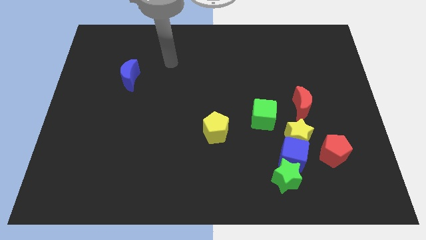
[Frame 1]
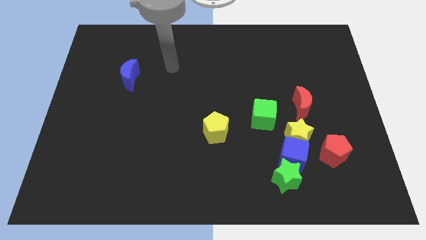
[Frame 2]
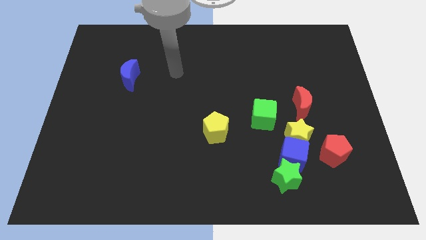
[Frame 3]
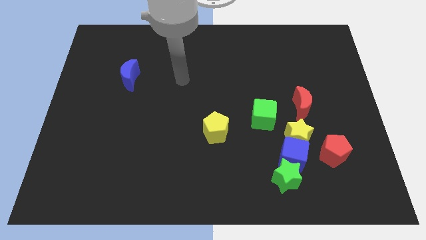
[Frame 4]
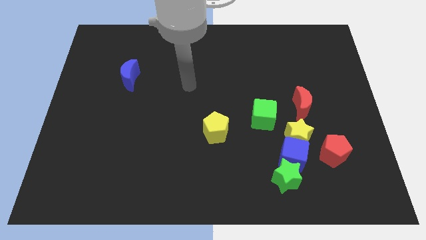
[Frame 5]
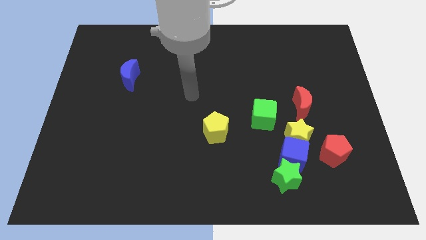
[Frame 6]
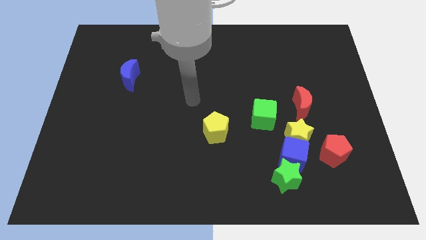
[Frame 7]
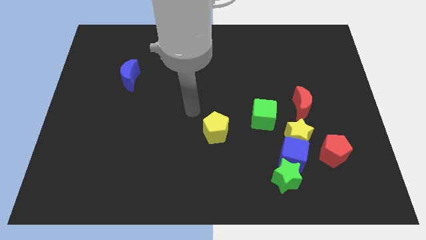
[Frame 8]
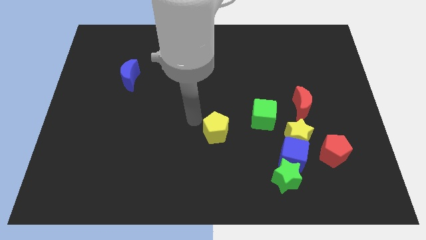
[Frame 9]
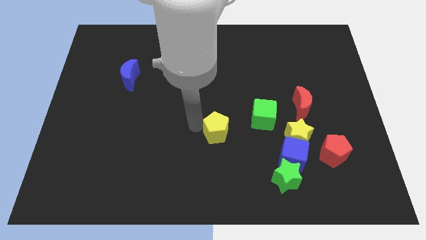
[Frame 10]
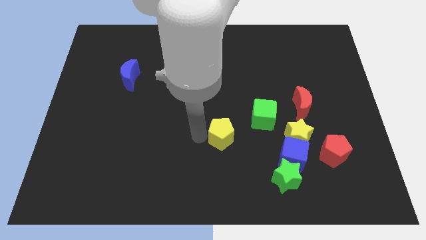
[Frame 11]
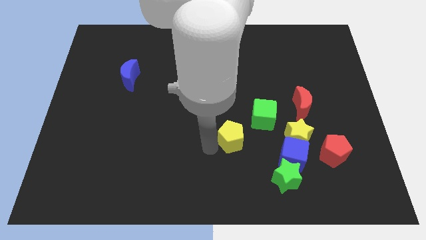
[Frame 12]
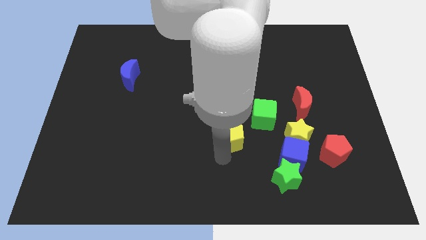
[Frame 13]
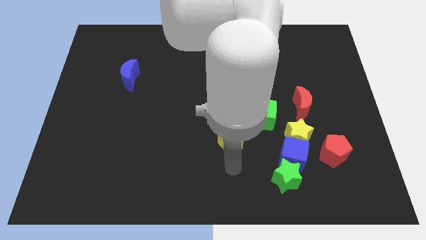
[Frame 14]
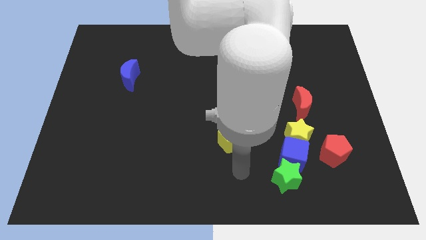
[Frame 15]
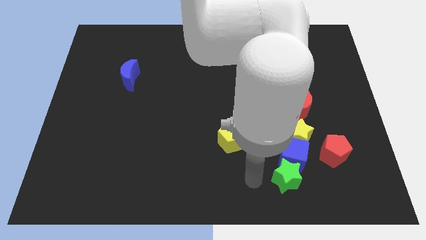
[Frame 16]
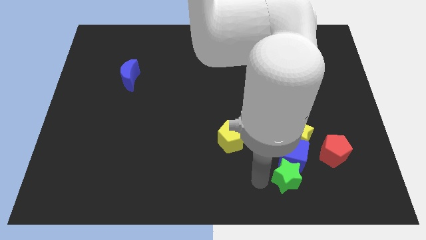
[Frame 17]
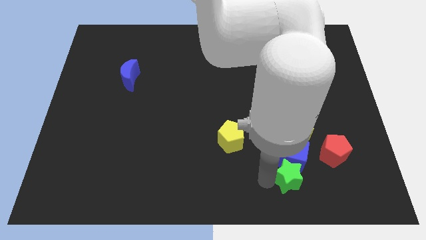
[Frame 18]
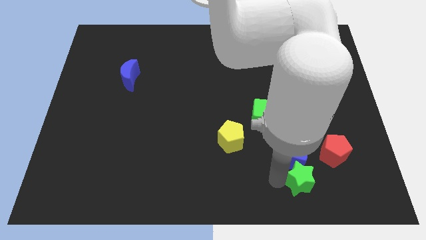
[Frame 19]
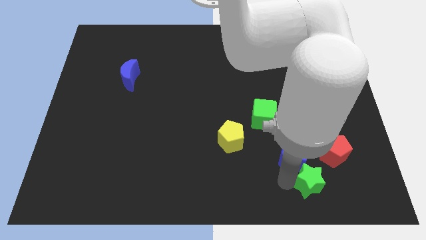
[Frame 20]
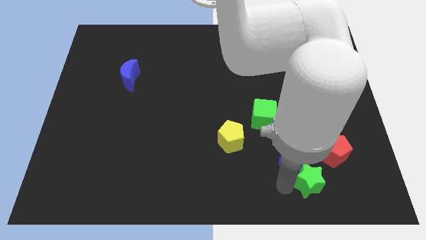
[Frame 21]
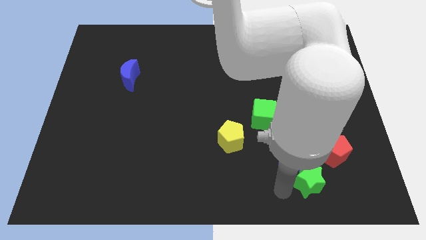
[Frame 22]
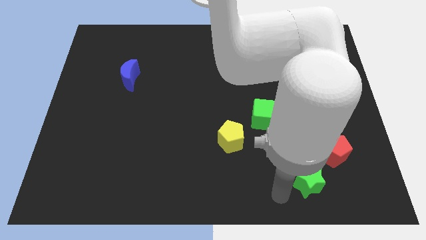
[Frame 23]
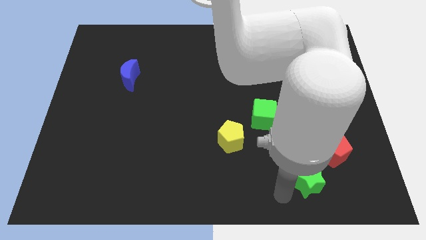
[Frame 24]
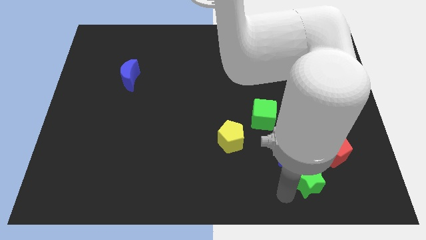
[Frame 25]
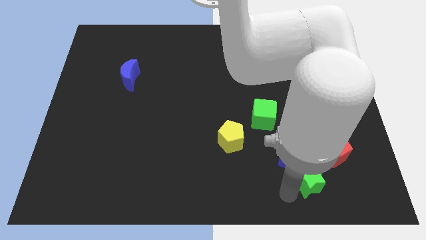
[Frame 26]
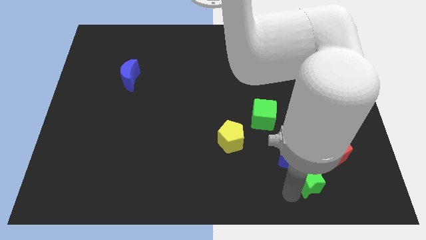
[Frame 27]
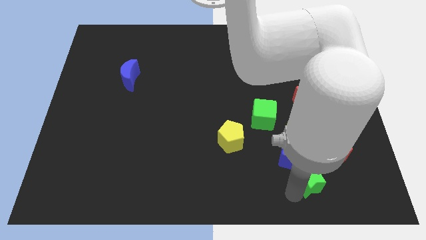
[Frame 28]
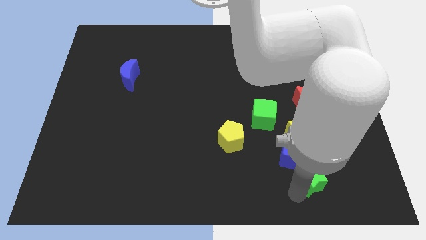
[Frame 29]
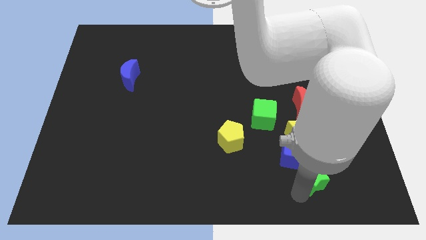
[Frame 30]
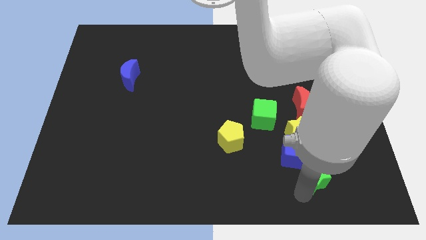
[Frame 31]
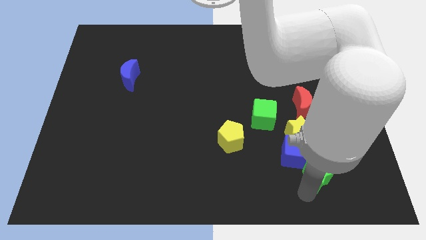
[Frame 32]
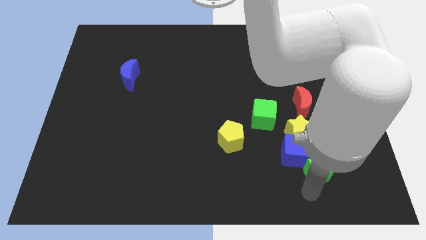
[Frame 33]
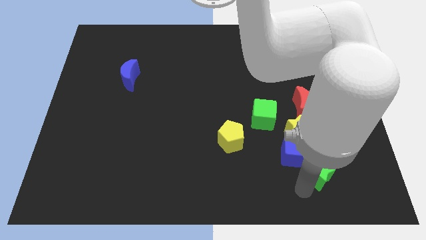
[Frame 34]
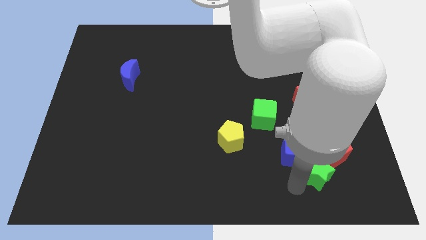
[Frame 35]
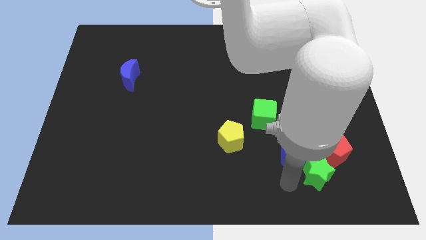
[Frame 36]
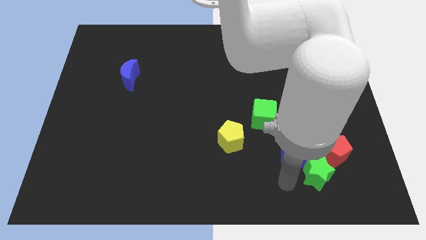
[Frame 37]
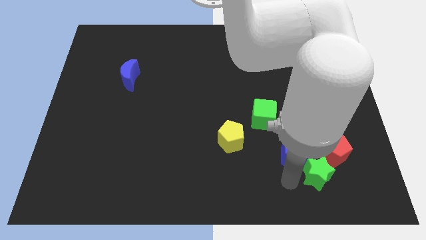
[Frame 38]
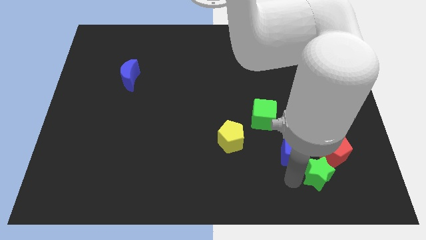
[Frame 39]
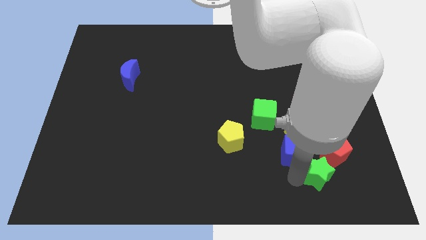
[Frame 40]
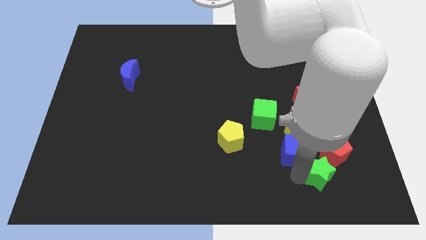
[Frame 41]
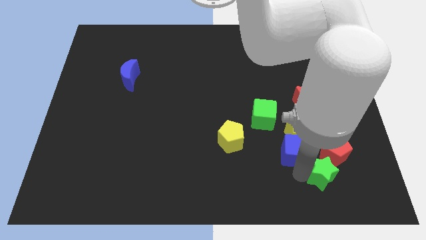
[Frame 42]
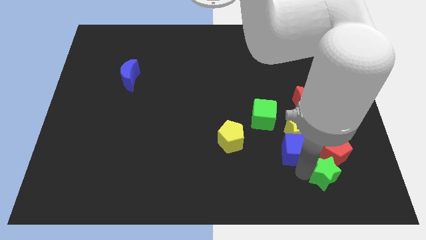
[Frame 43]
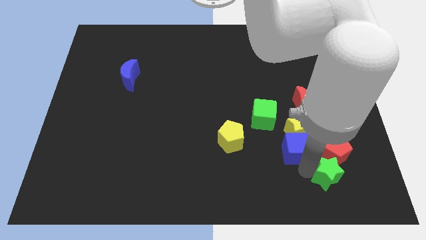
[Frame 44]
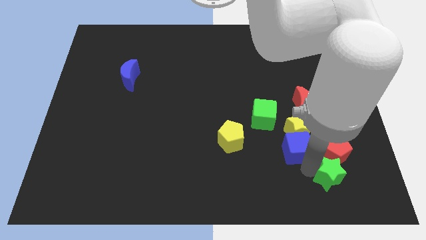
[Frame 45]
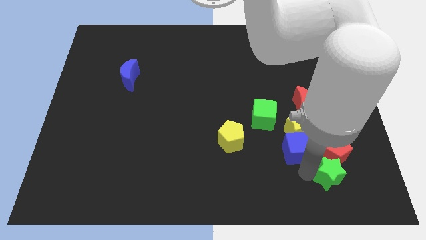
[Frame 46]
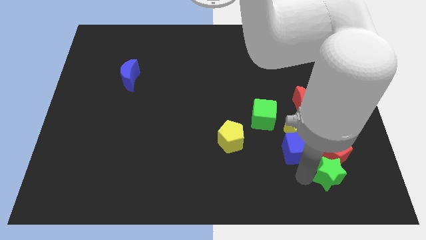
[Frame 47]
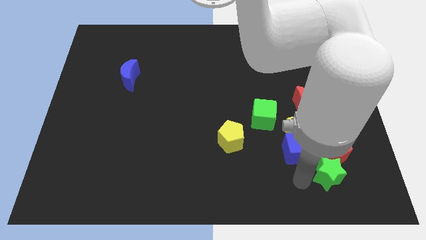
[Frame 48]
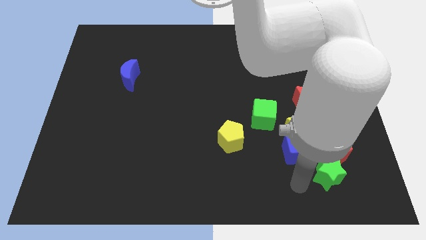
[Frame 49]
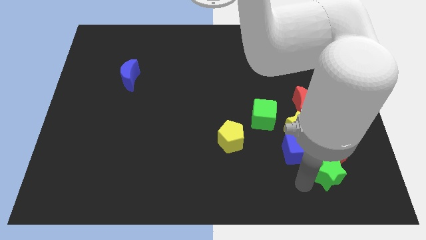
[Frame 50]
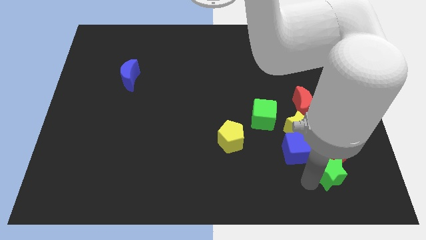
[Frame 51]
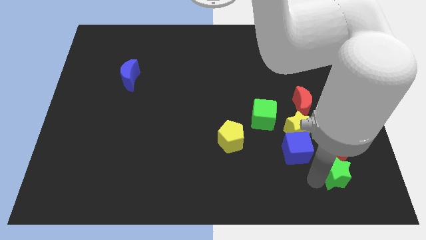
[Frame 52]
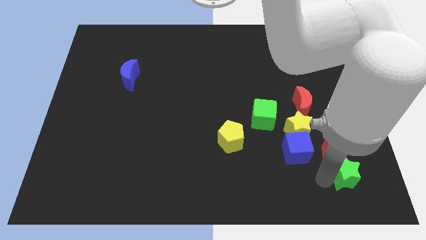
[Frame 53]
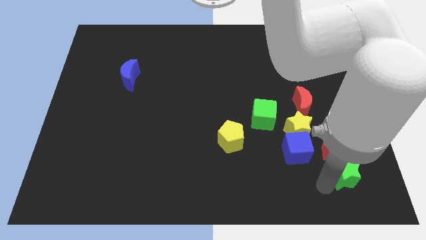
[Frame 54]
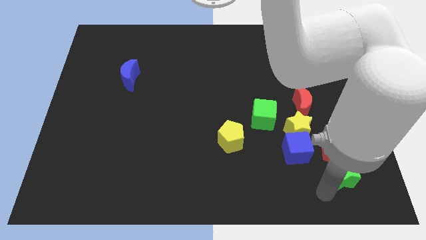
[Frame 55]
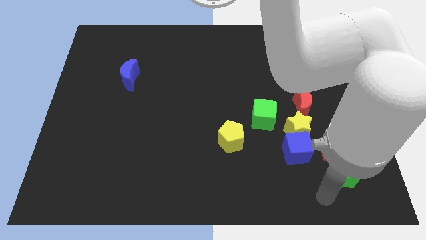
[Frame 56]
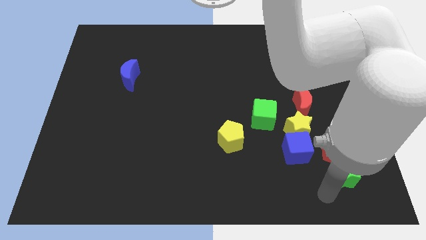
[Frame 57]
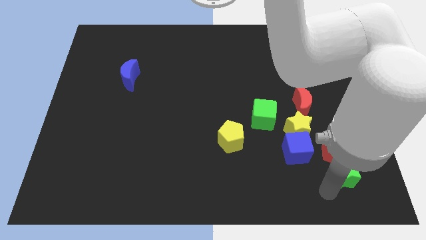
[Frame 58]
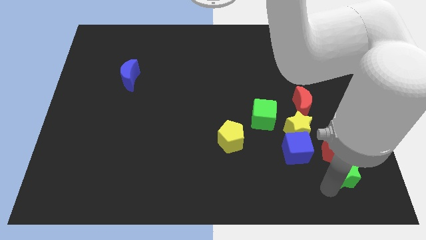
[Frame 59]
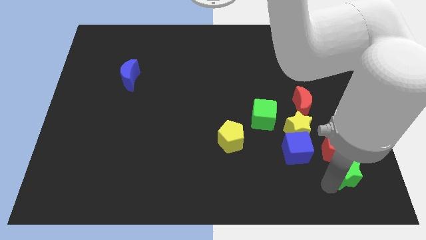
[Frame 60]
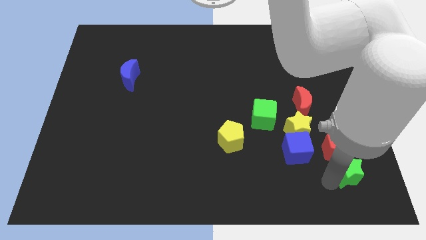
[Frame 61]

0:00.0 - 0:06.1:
push the green star upwards and right diagonally a little

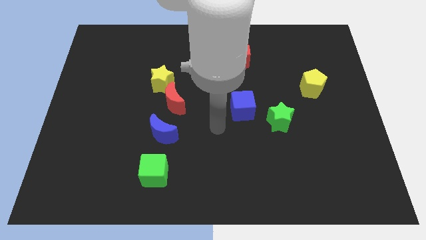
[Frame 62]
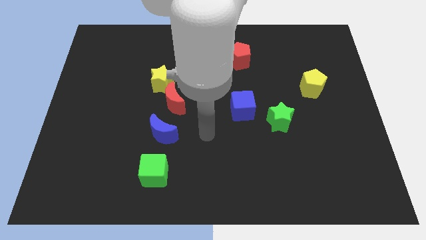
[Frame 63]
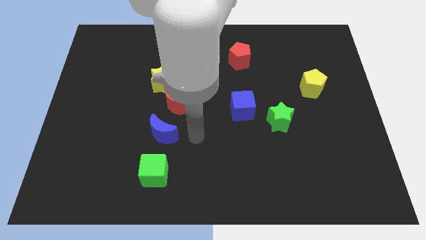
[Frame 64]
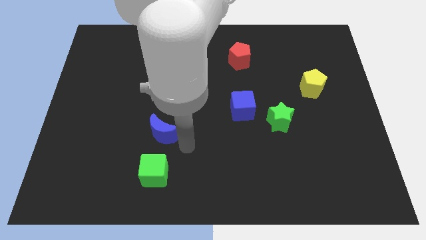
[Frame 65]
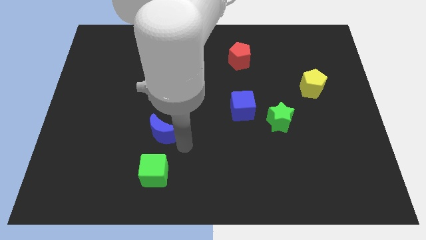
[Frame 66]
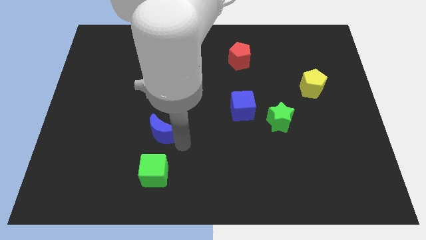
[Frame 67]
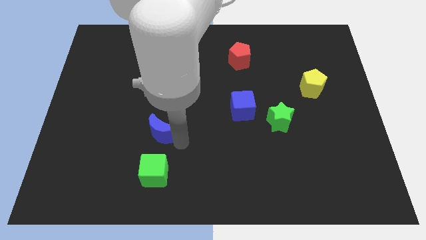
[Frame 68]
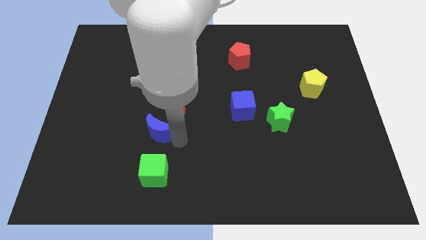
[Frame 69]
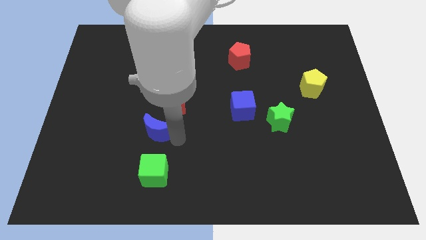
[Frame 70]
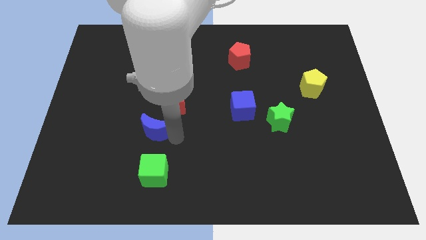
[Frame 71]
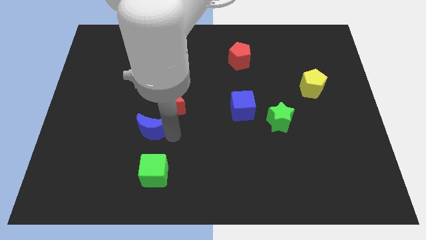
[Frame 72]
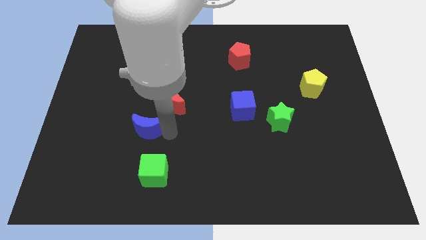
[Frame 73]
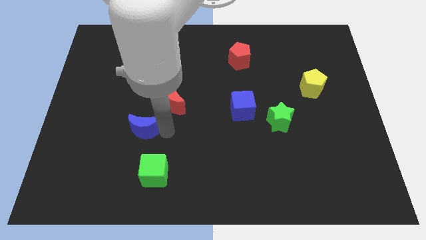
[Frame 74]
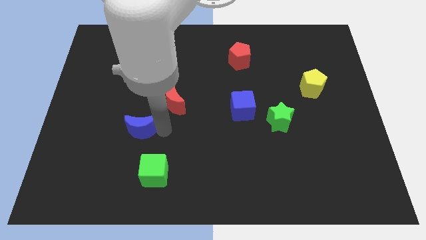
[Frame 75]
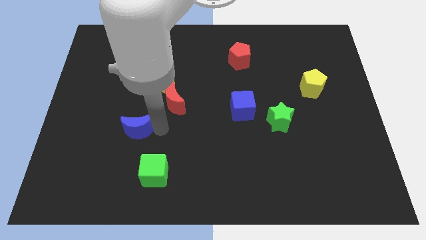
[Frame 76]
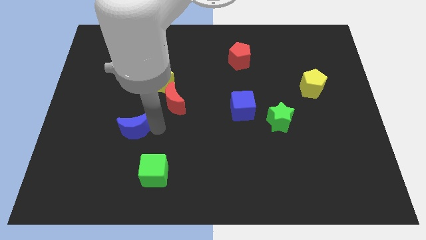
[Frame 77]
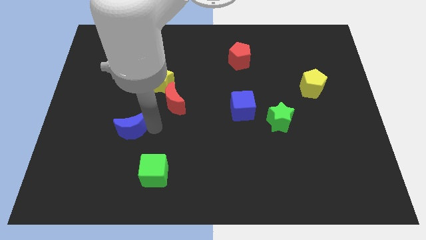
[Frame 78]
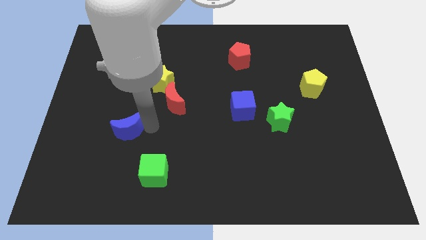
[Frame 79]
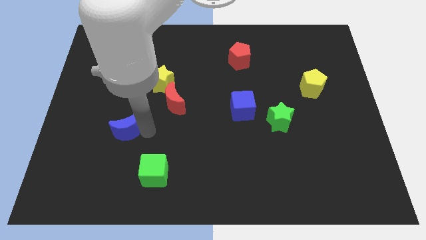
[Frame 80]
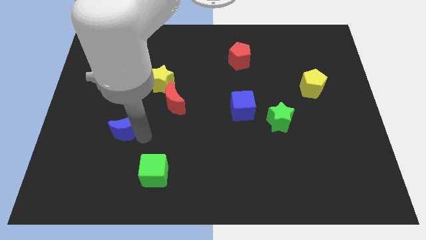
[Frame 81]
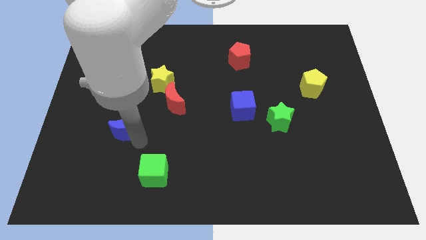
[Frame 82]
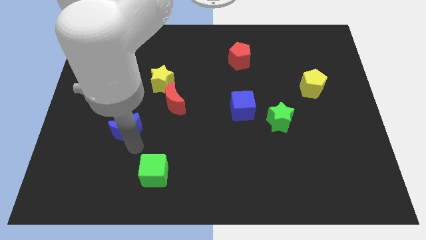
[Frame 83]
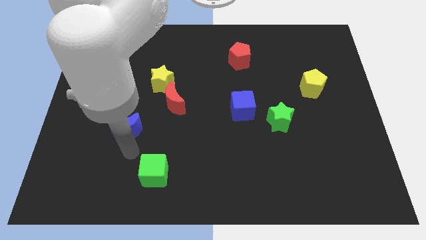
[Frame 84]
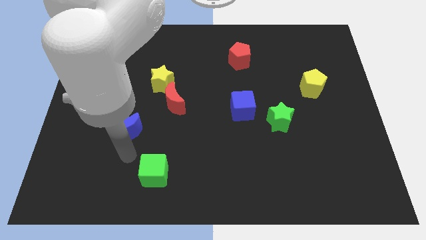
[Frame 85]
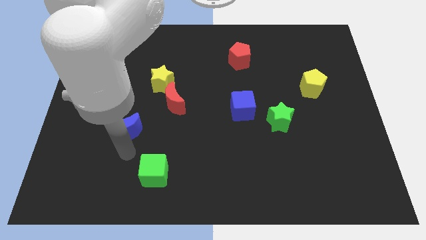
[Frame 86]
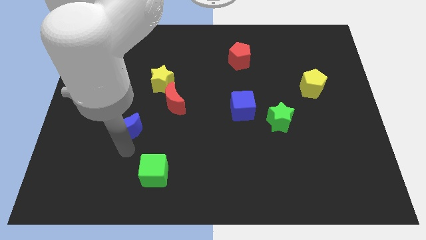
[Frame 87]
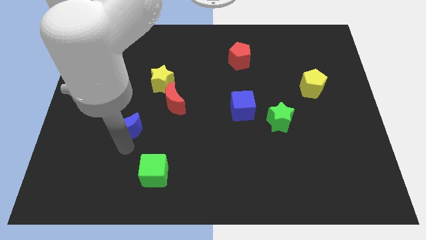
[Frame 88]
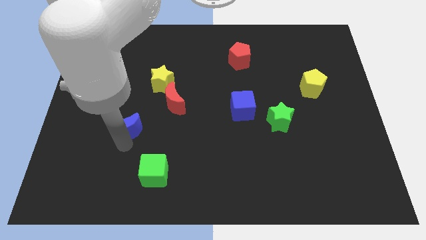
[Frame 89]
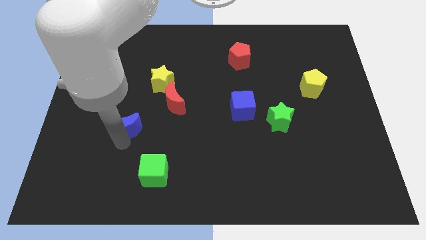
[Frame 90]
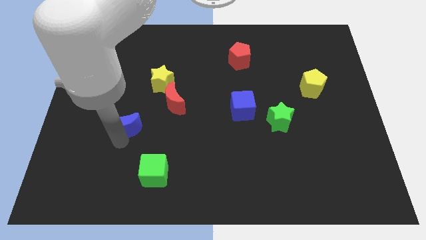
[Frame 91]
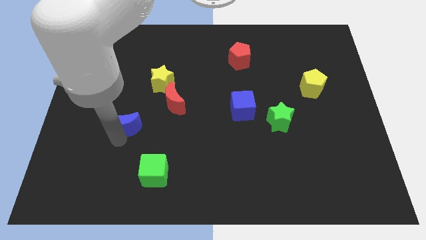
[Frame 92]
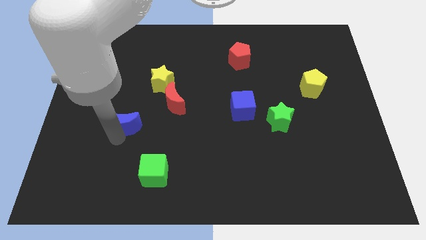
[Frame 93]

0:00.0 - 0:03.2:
push the blue moon a little bit up and to the left diagonally
